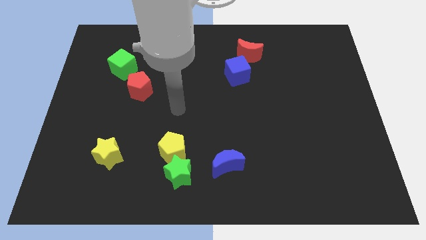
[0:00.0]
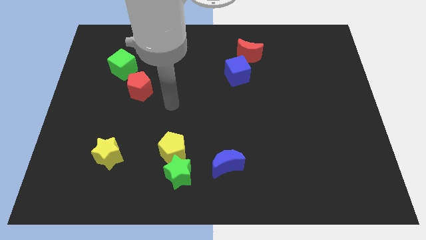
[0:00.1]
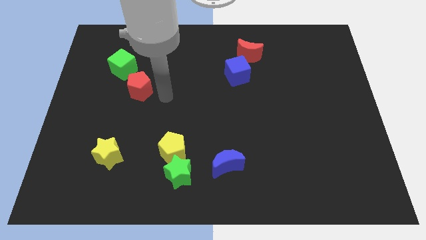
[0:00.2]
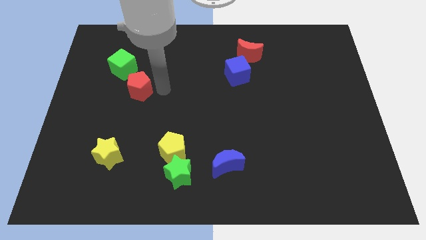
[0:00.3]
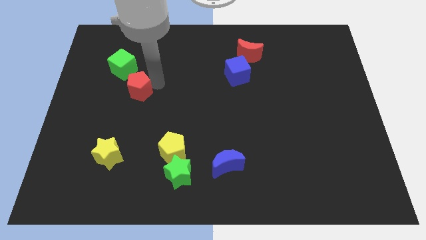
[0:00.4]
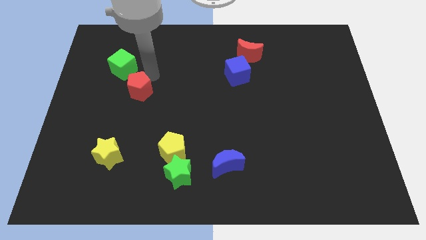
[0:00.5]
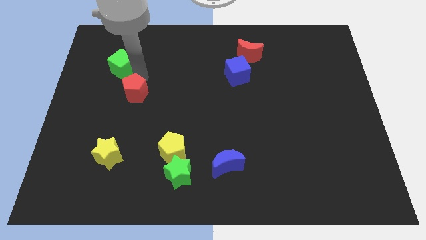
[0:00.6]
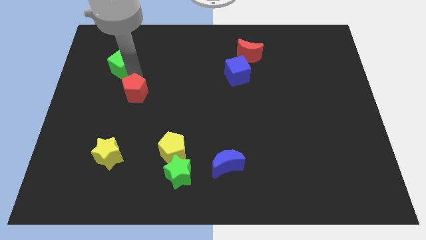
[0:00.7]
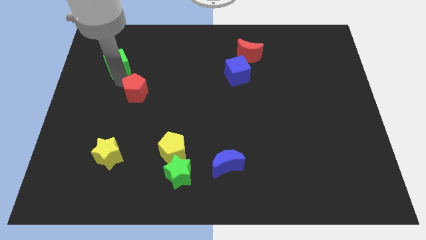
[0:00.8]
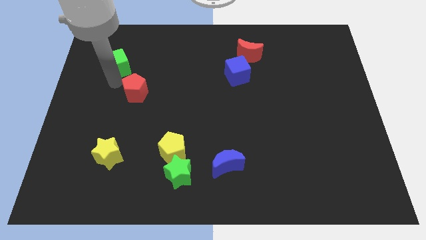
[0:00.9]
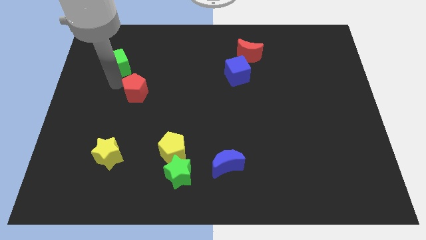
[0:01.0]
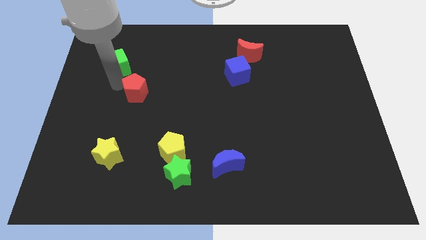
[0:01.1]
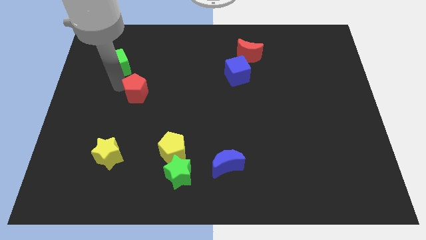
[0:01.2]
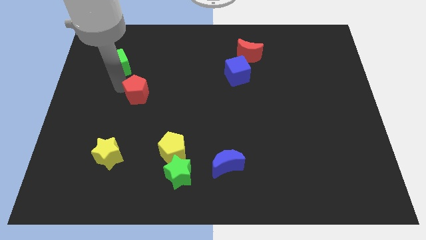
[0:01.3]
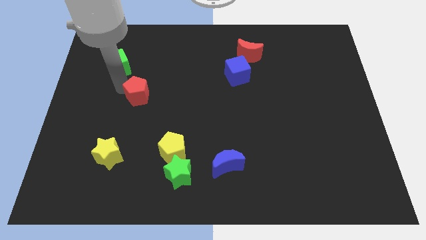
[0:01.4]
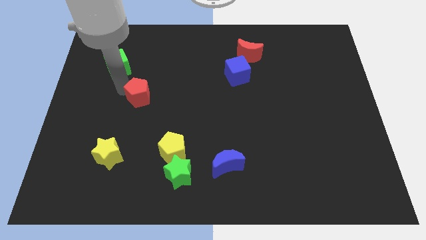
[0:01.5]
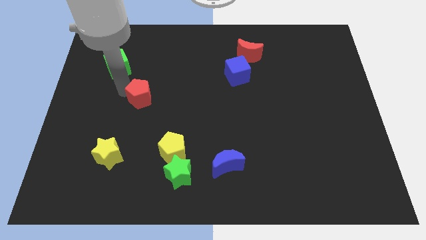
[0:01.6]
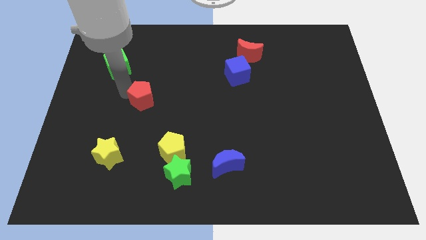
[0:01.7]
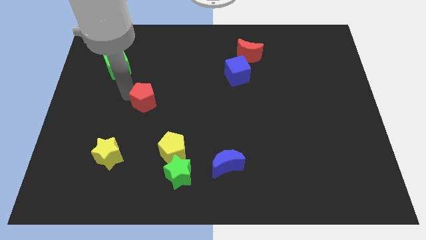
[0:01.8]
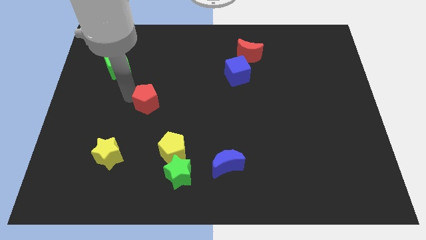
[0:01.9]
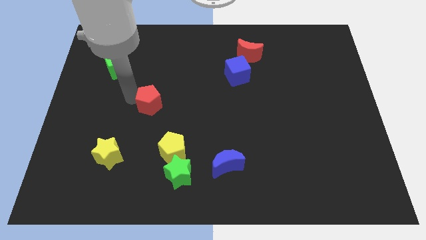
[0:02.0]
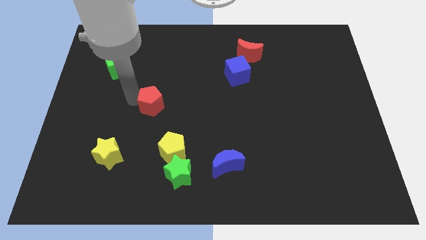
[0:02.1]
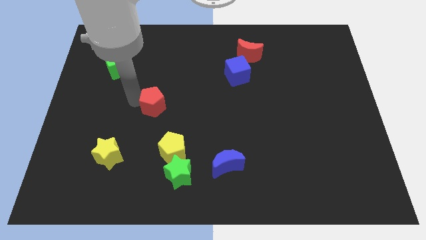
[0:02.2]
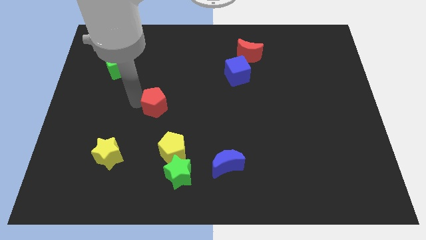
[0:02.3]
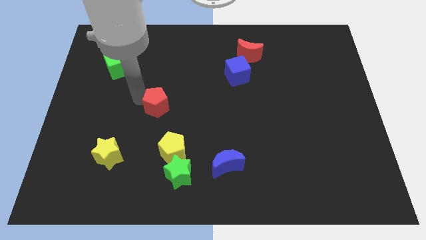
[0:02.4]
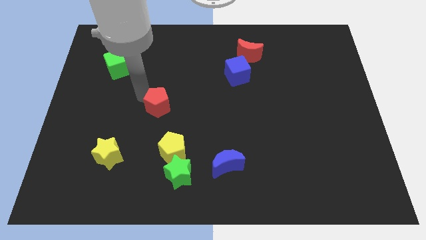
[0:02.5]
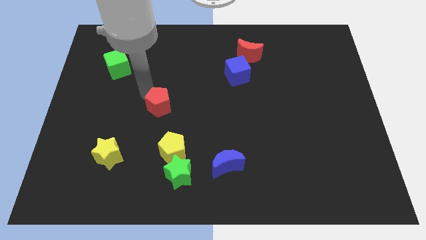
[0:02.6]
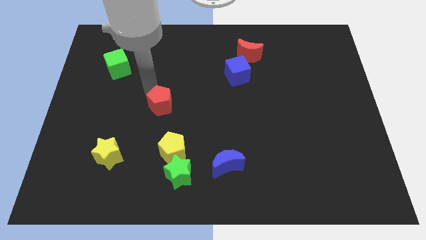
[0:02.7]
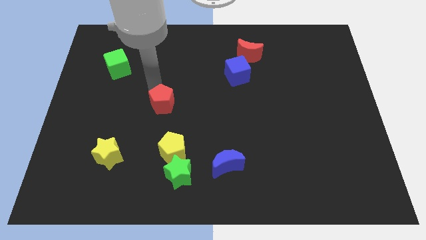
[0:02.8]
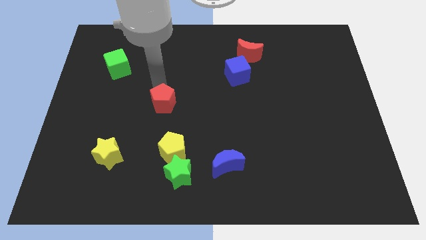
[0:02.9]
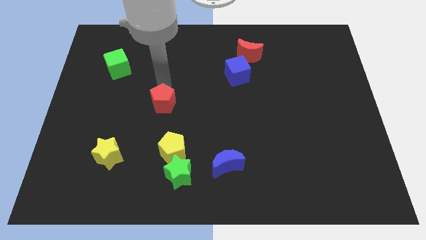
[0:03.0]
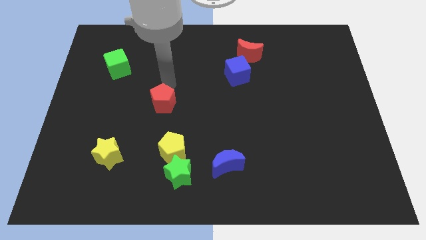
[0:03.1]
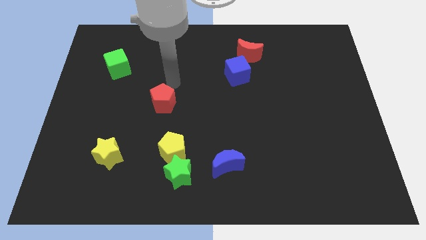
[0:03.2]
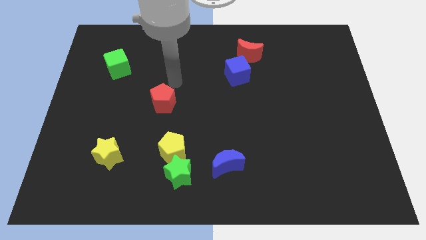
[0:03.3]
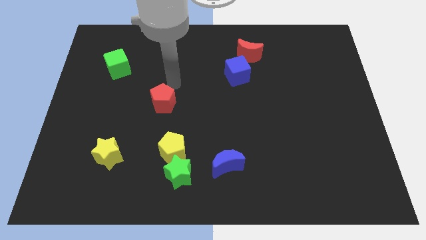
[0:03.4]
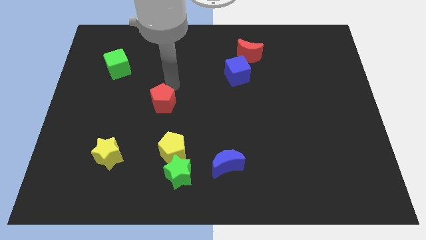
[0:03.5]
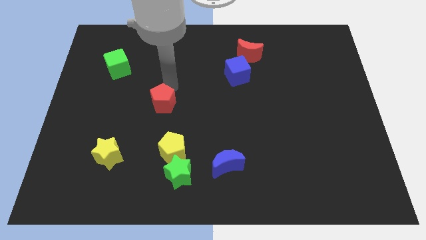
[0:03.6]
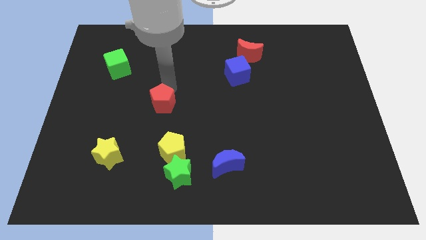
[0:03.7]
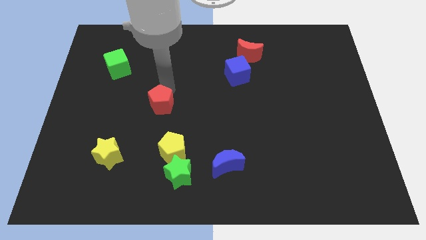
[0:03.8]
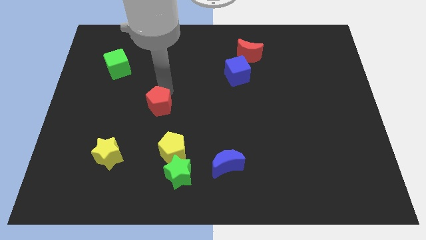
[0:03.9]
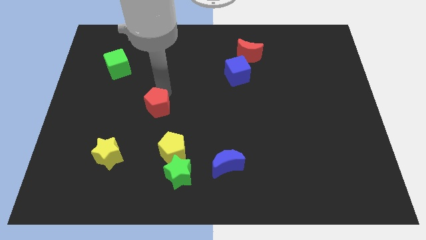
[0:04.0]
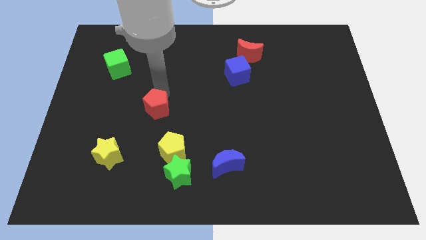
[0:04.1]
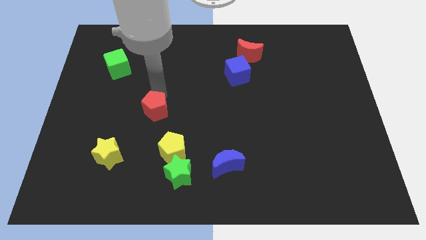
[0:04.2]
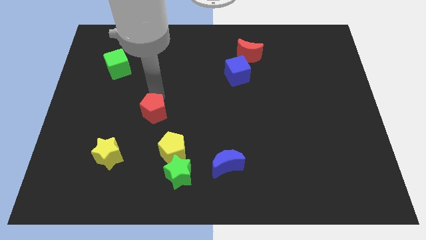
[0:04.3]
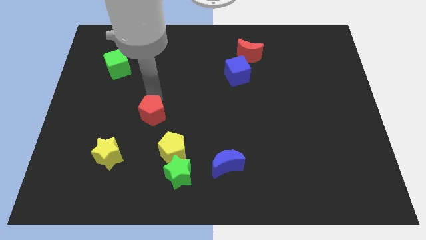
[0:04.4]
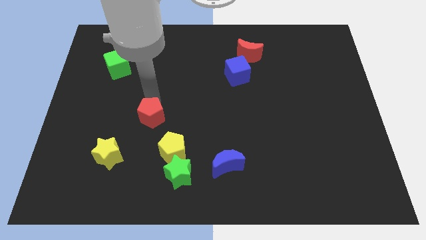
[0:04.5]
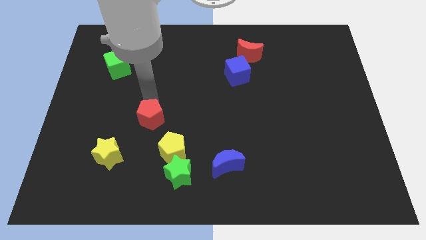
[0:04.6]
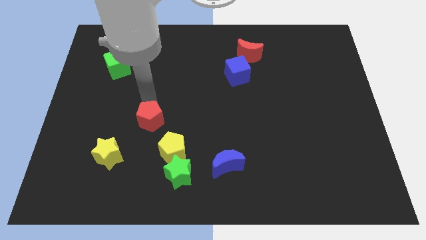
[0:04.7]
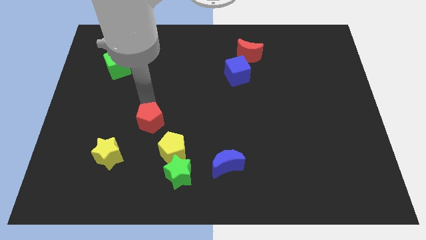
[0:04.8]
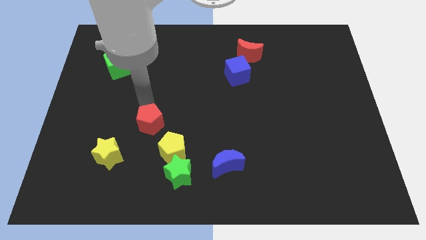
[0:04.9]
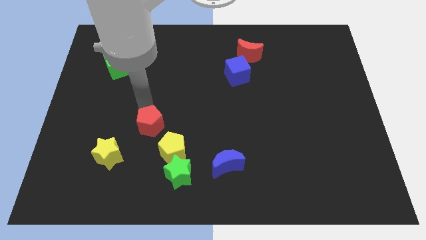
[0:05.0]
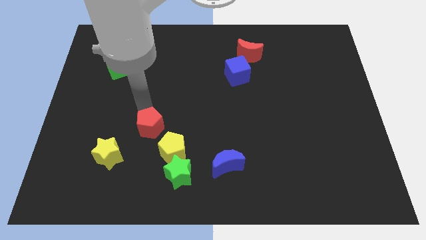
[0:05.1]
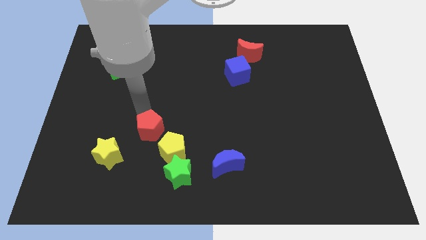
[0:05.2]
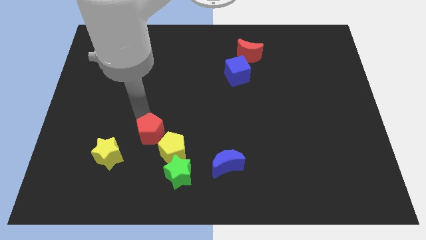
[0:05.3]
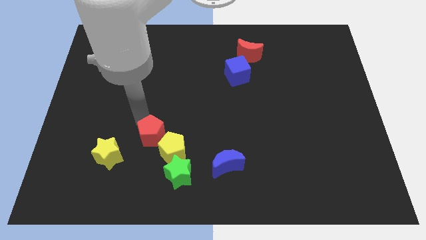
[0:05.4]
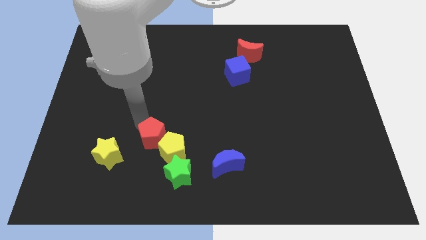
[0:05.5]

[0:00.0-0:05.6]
put the red pentagon to the yellow pentagon

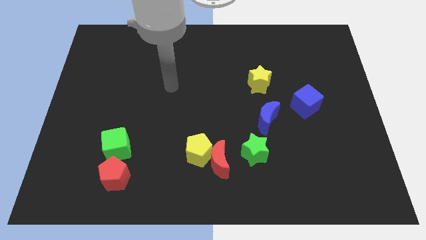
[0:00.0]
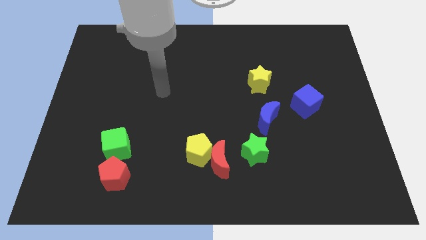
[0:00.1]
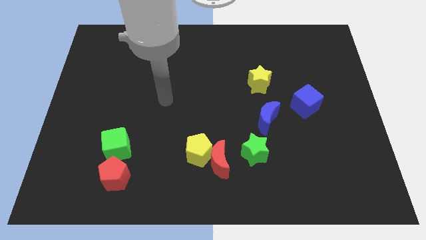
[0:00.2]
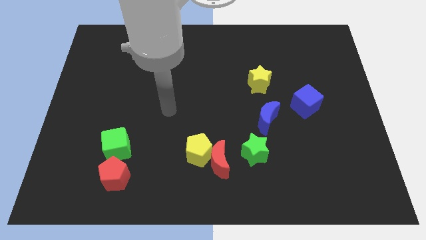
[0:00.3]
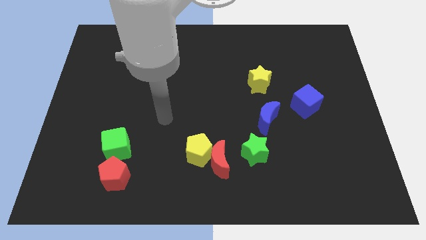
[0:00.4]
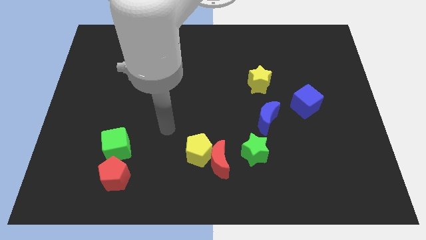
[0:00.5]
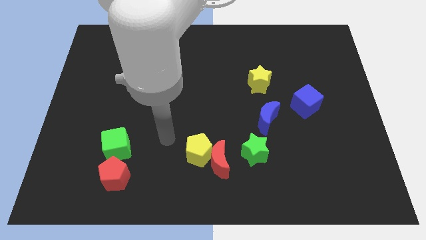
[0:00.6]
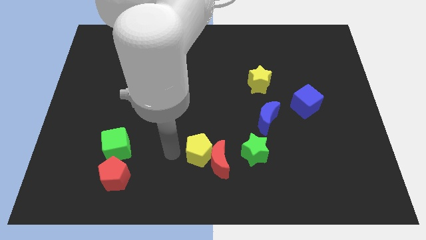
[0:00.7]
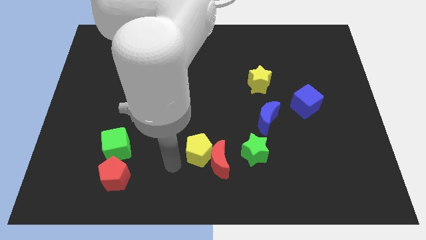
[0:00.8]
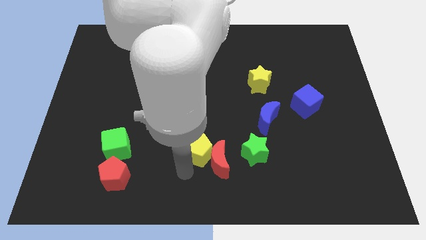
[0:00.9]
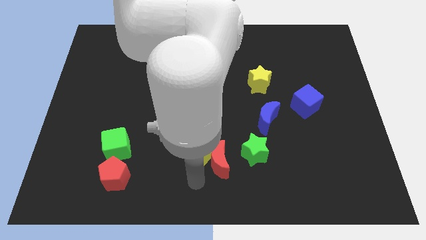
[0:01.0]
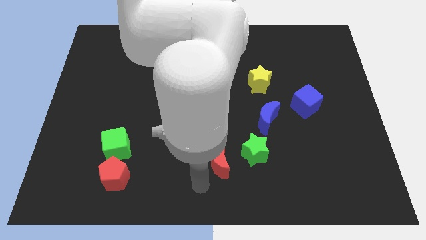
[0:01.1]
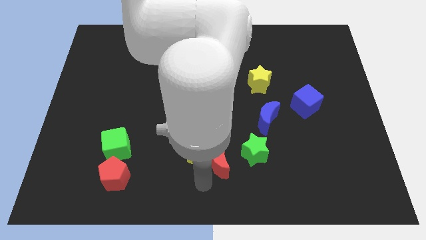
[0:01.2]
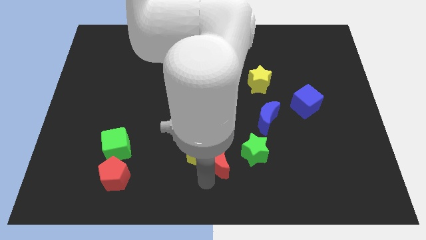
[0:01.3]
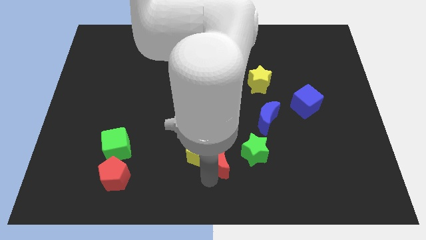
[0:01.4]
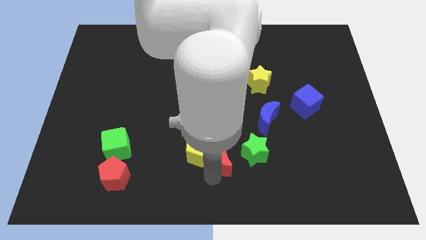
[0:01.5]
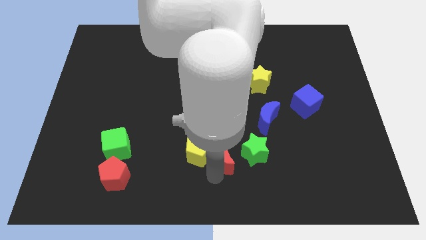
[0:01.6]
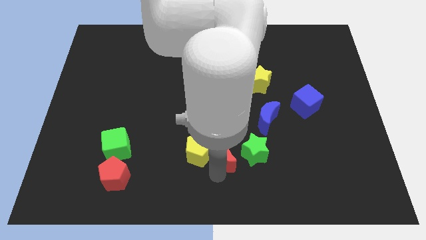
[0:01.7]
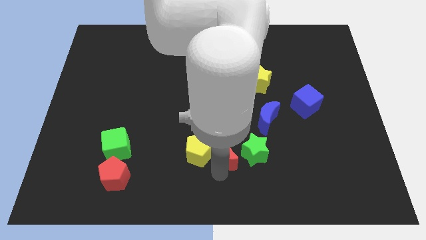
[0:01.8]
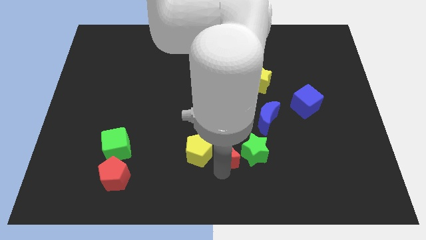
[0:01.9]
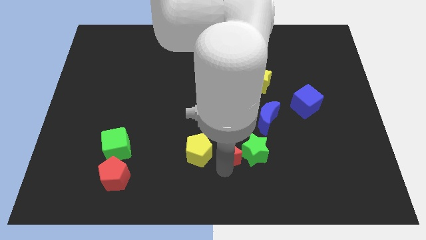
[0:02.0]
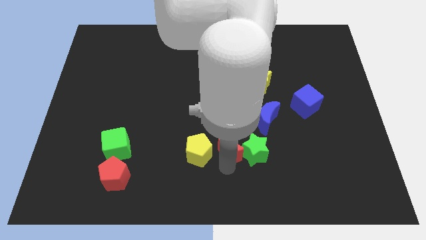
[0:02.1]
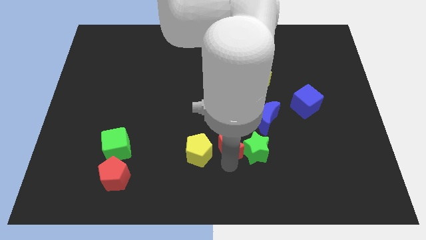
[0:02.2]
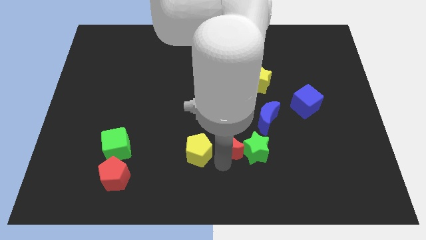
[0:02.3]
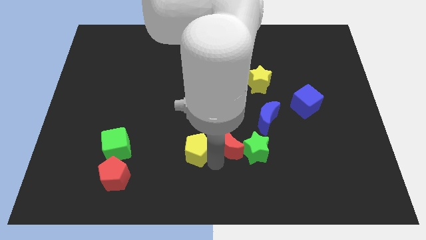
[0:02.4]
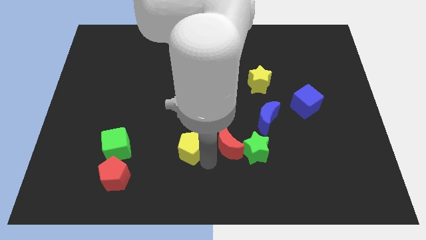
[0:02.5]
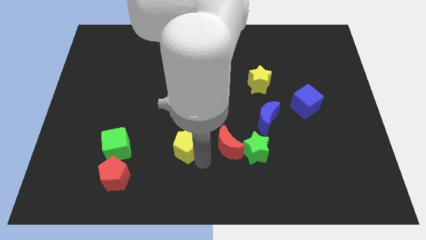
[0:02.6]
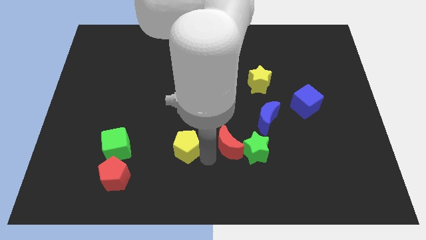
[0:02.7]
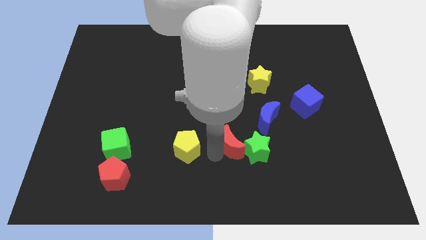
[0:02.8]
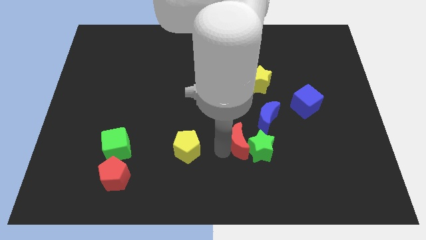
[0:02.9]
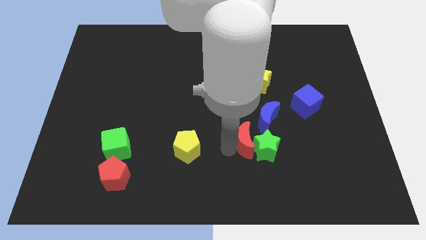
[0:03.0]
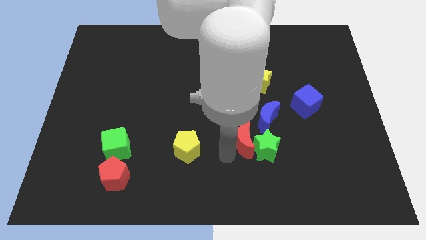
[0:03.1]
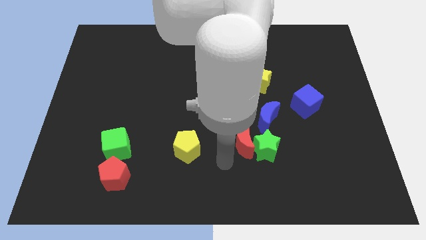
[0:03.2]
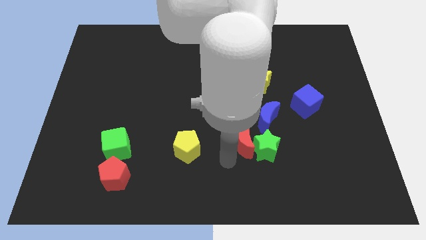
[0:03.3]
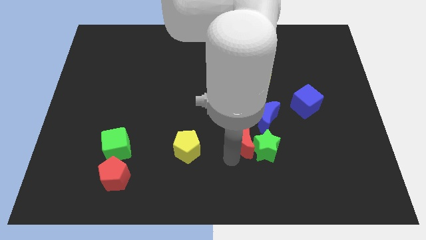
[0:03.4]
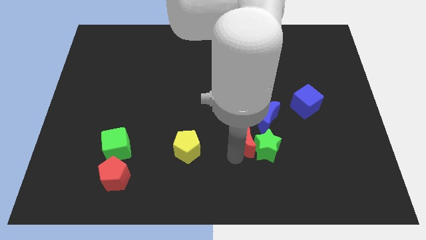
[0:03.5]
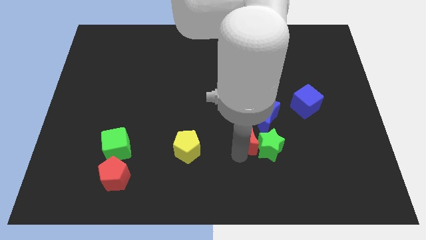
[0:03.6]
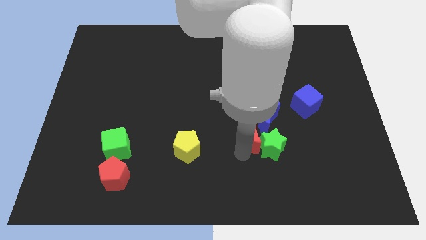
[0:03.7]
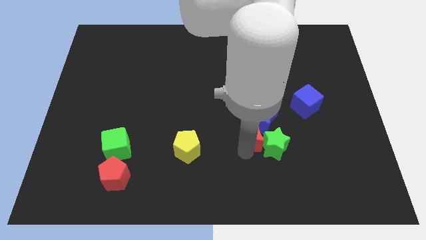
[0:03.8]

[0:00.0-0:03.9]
put the red moon to the blue moon
